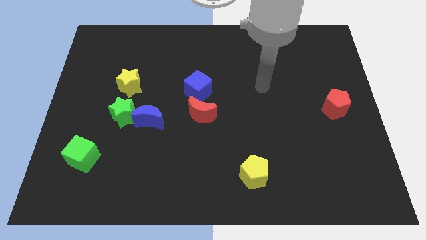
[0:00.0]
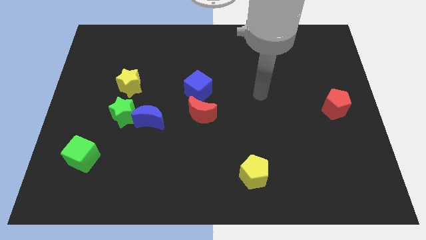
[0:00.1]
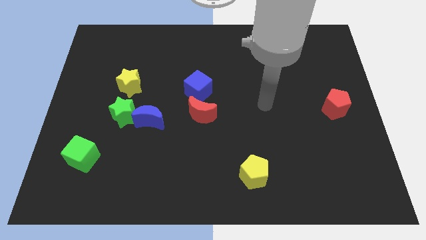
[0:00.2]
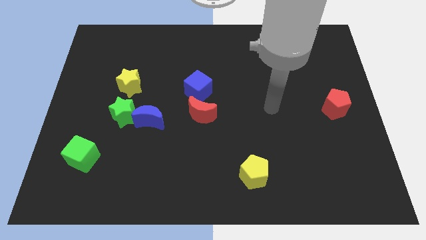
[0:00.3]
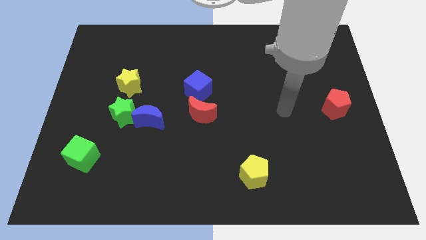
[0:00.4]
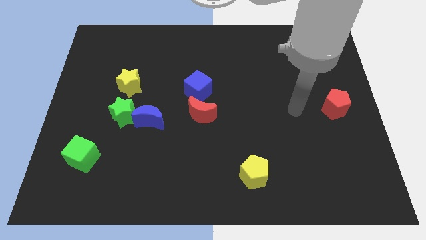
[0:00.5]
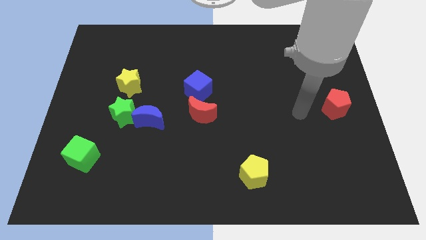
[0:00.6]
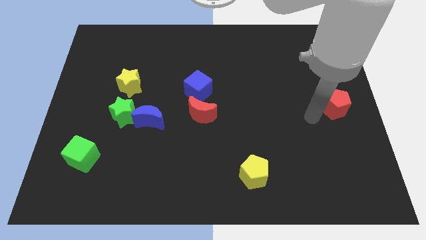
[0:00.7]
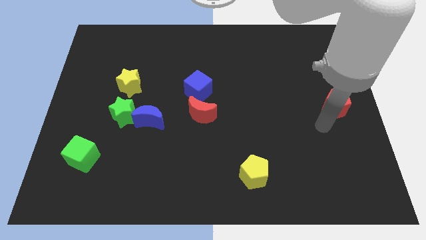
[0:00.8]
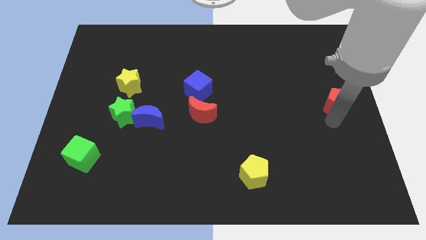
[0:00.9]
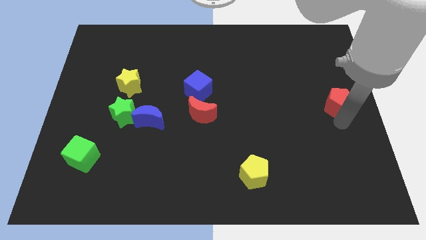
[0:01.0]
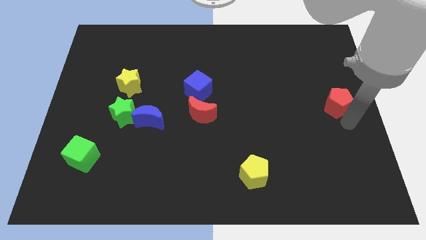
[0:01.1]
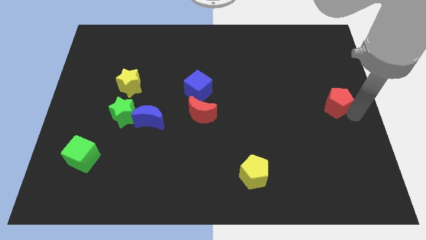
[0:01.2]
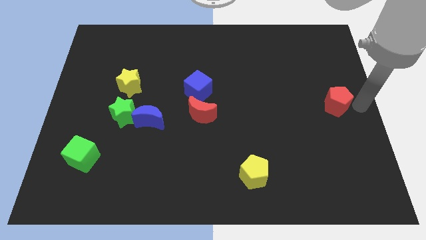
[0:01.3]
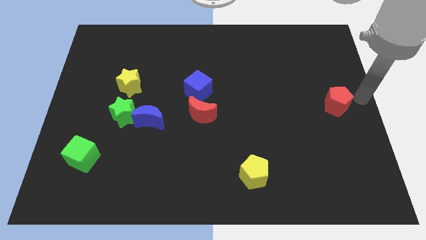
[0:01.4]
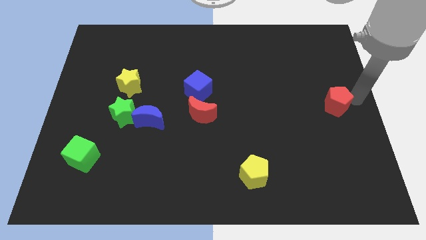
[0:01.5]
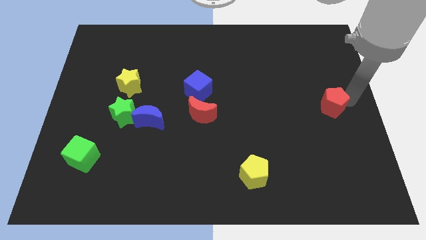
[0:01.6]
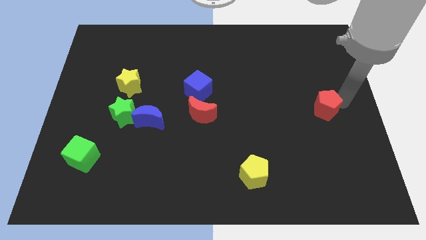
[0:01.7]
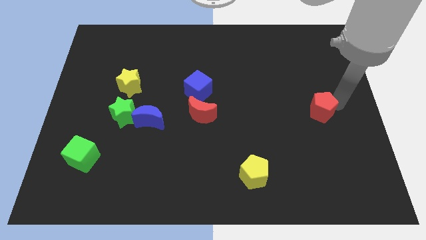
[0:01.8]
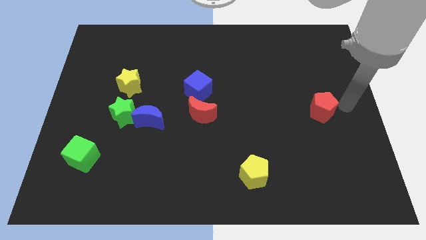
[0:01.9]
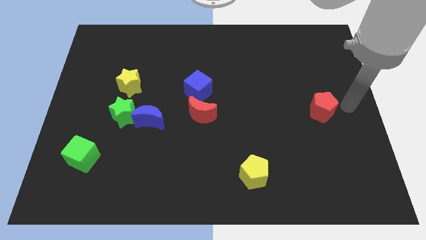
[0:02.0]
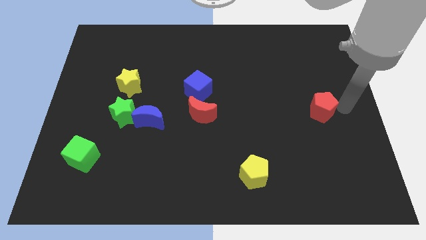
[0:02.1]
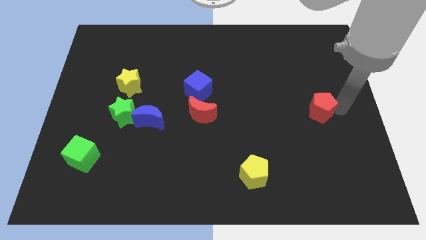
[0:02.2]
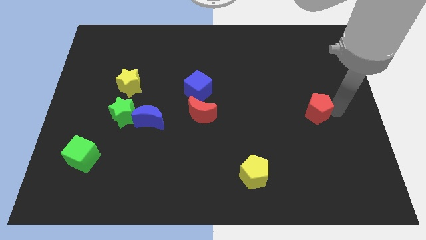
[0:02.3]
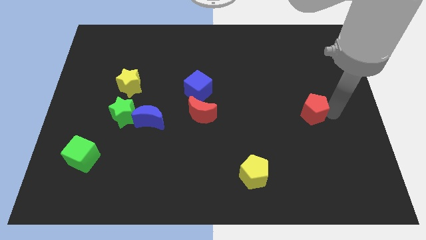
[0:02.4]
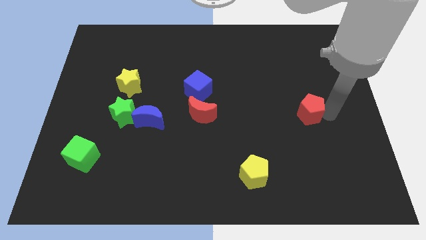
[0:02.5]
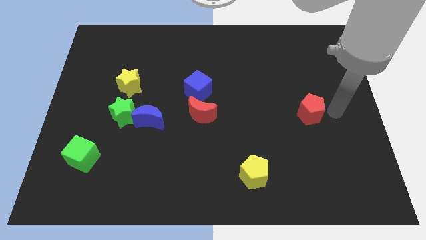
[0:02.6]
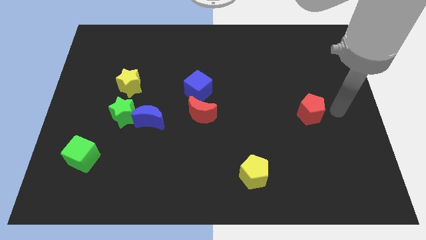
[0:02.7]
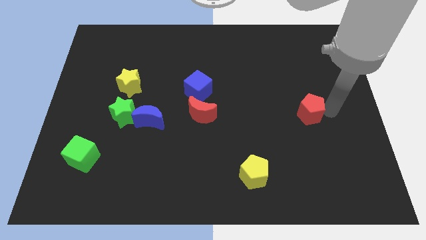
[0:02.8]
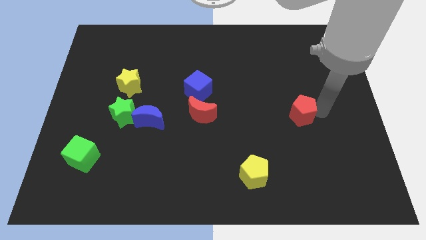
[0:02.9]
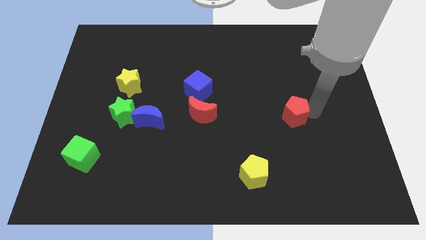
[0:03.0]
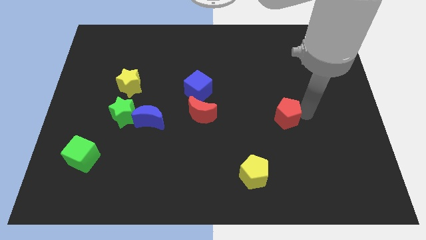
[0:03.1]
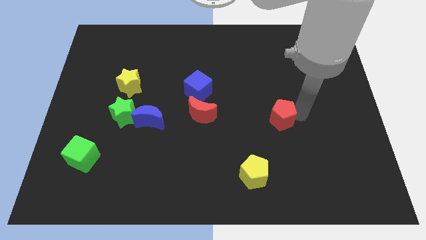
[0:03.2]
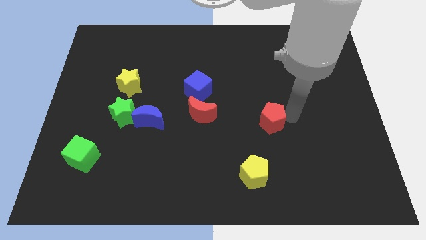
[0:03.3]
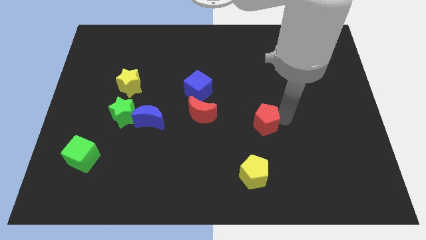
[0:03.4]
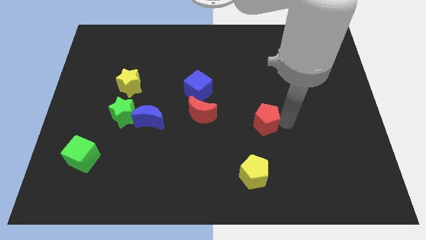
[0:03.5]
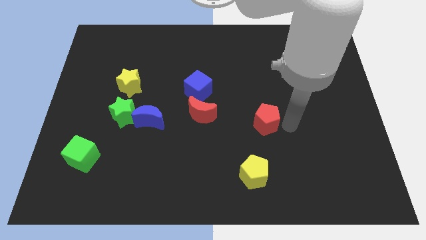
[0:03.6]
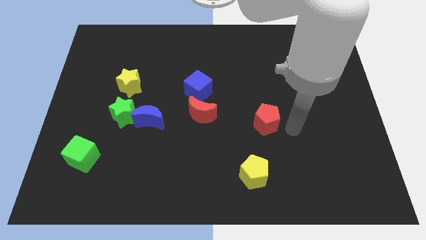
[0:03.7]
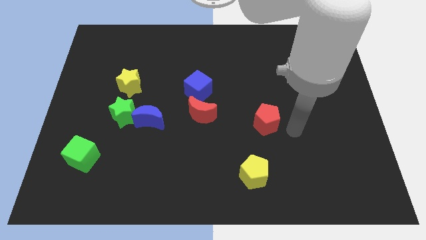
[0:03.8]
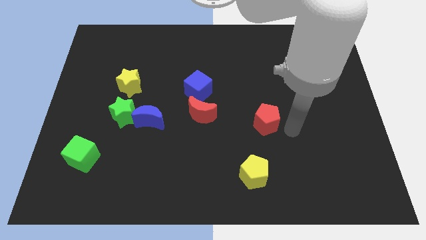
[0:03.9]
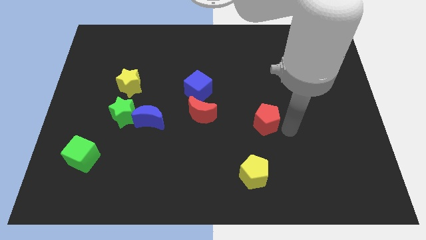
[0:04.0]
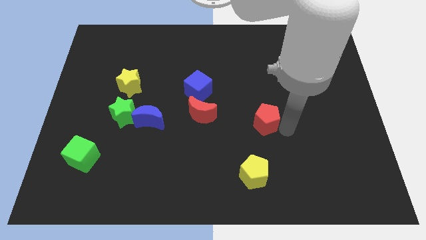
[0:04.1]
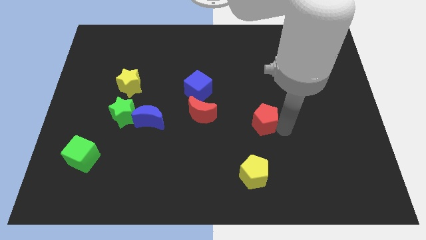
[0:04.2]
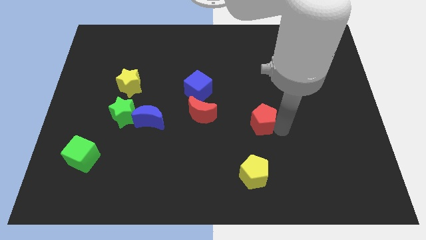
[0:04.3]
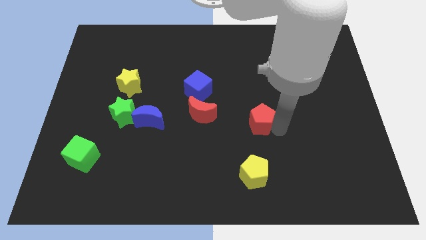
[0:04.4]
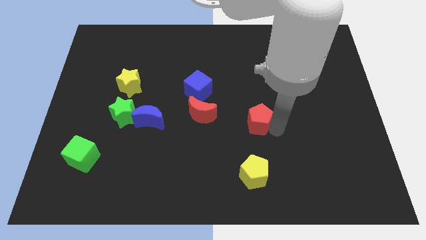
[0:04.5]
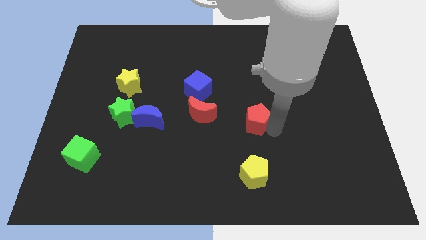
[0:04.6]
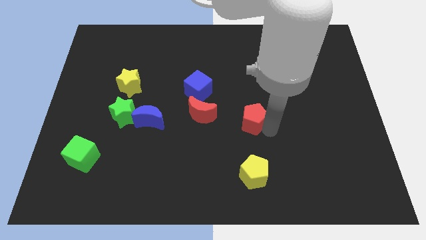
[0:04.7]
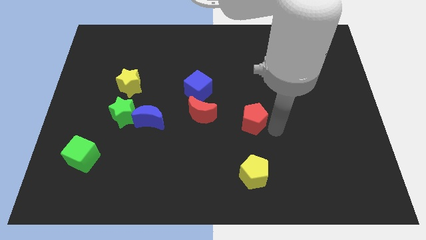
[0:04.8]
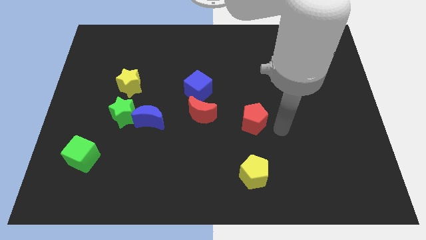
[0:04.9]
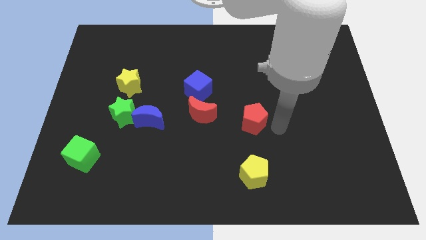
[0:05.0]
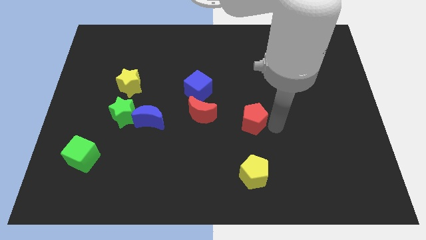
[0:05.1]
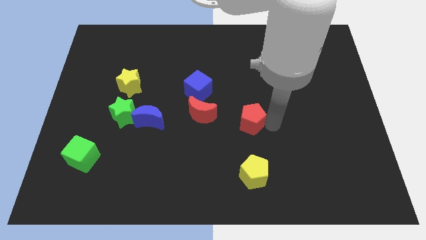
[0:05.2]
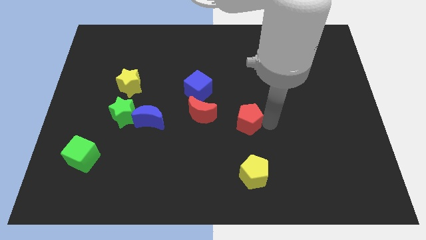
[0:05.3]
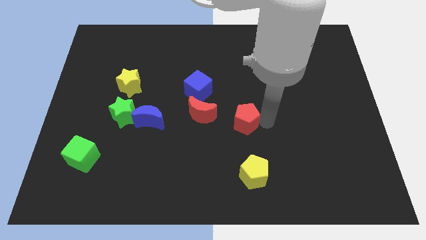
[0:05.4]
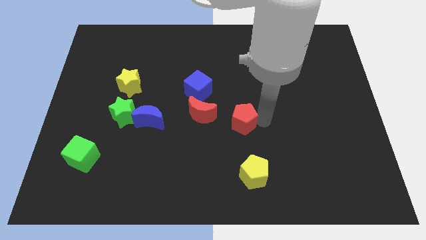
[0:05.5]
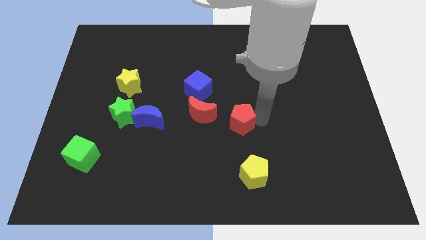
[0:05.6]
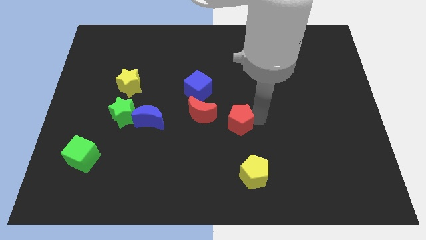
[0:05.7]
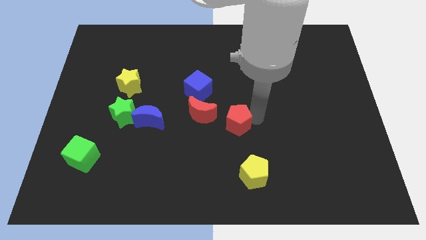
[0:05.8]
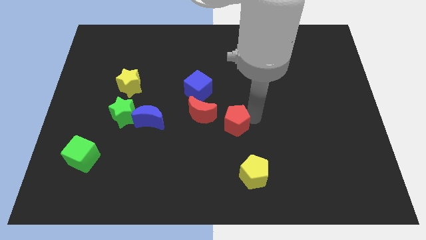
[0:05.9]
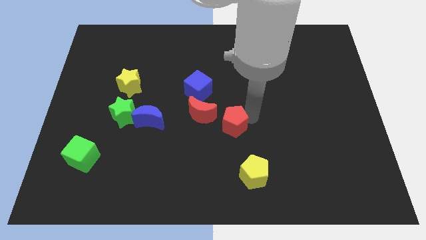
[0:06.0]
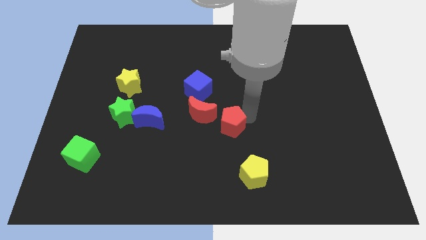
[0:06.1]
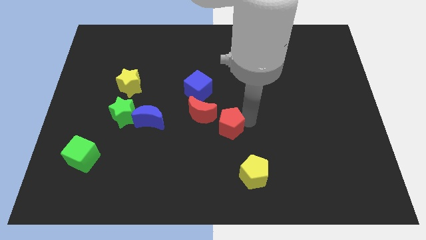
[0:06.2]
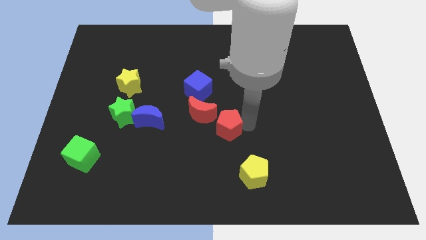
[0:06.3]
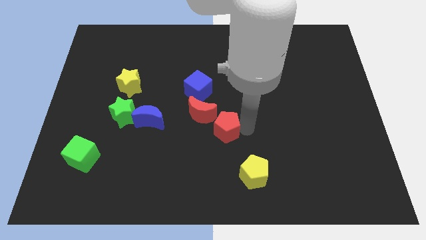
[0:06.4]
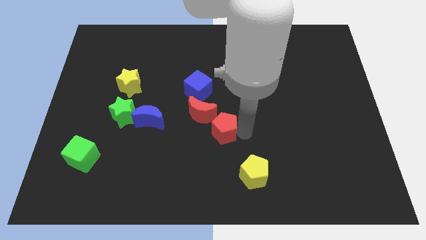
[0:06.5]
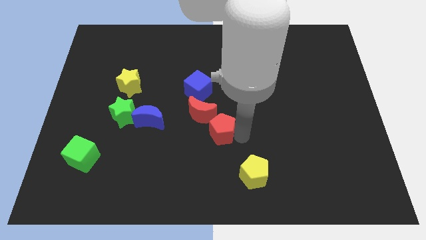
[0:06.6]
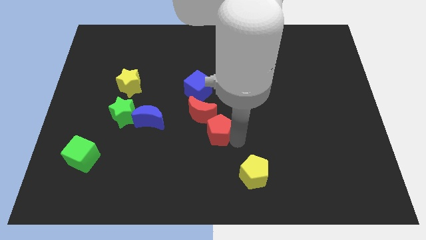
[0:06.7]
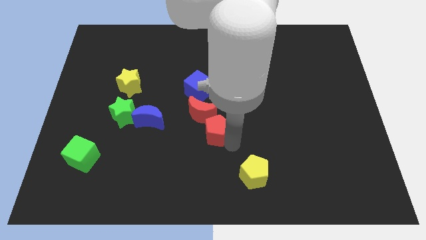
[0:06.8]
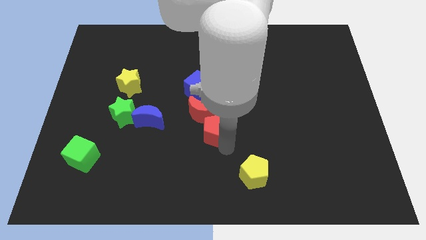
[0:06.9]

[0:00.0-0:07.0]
put the red pentagon close to the red moon
